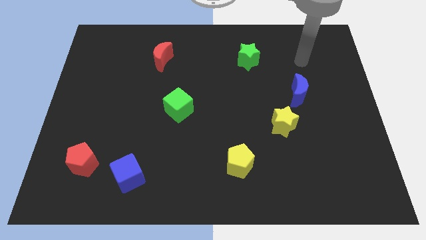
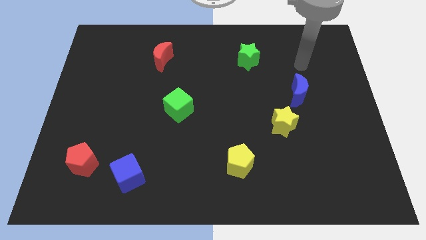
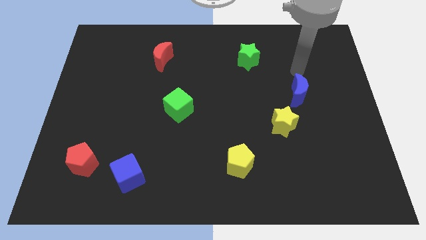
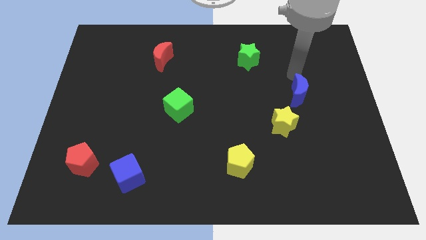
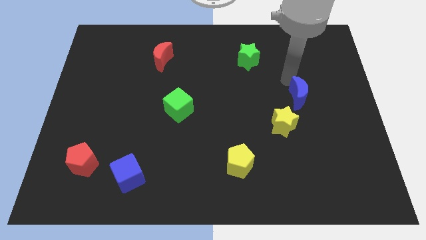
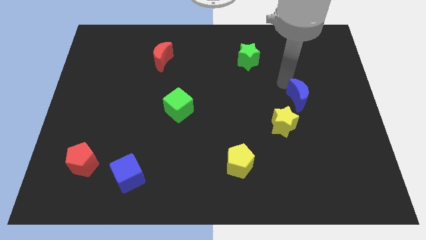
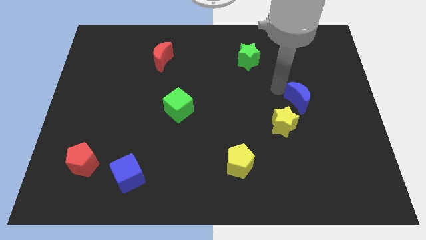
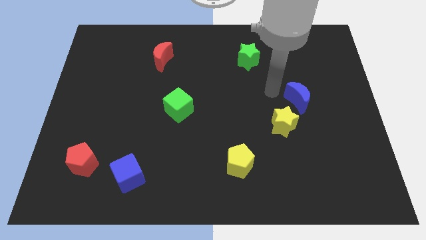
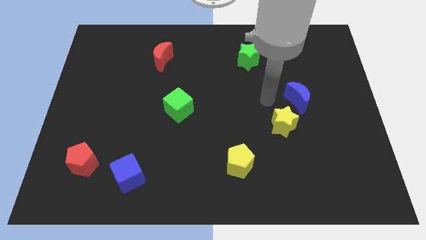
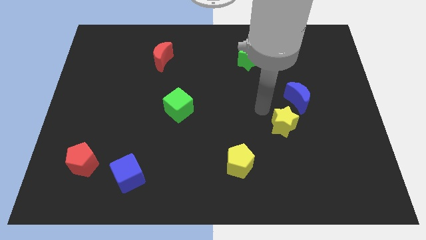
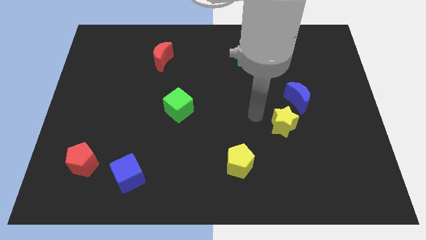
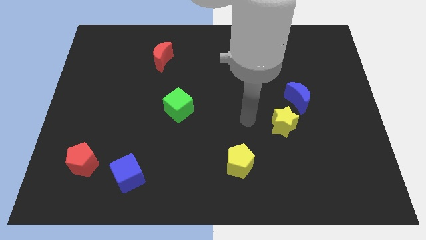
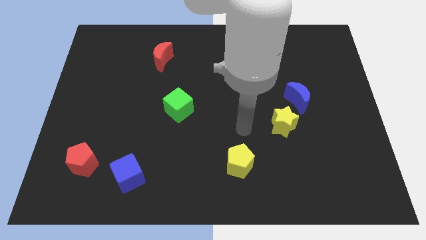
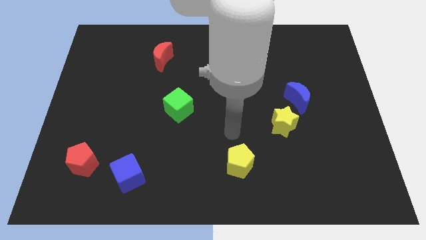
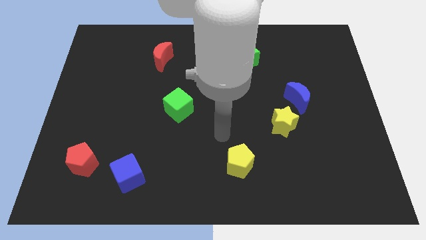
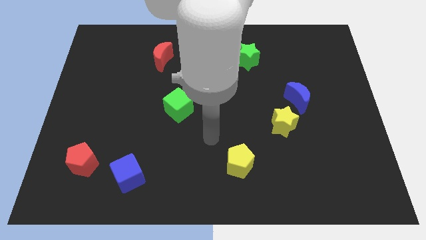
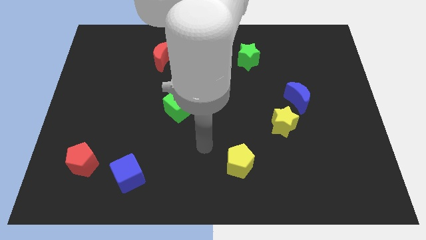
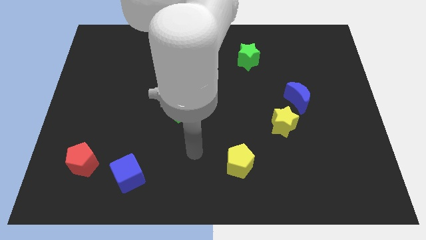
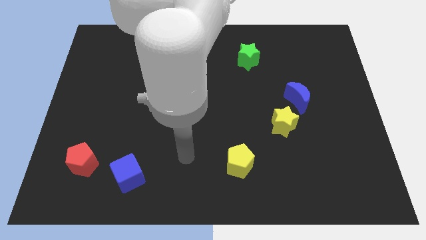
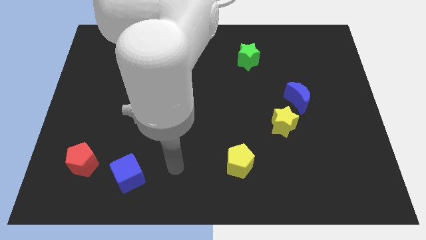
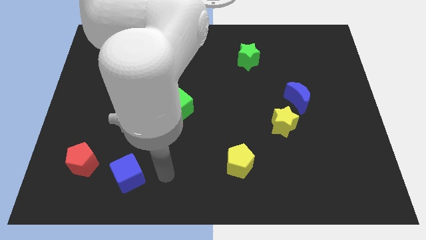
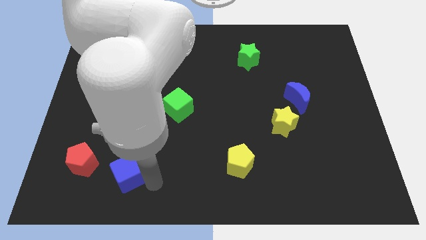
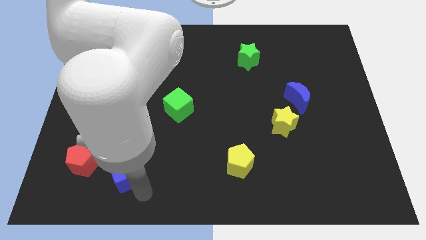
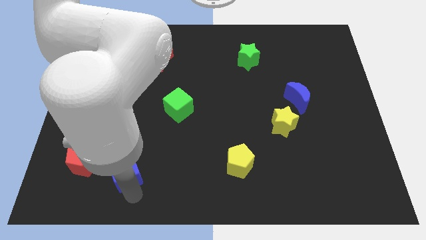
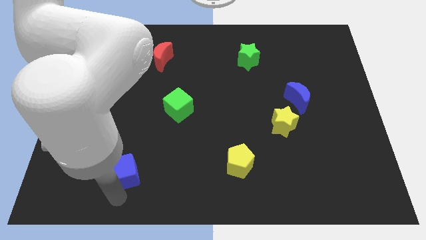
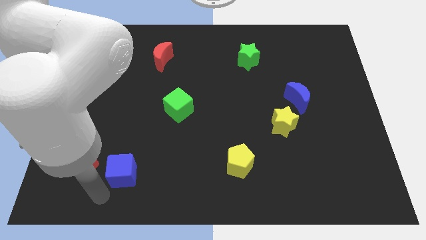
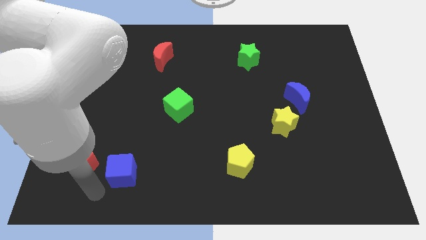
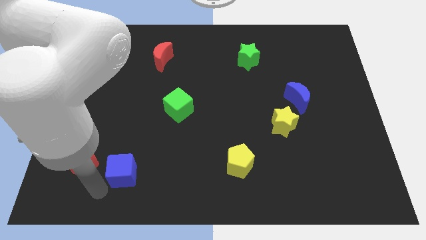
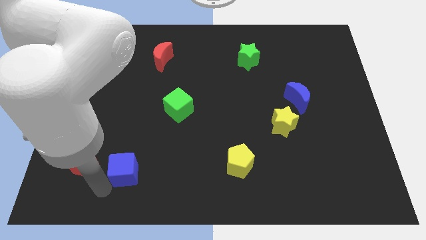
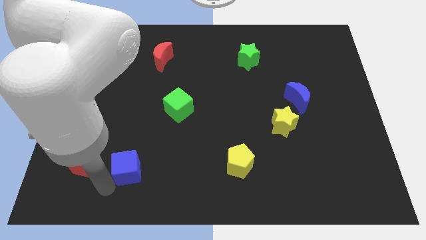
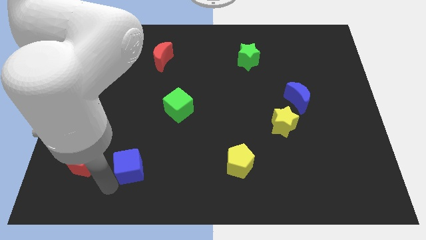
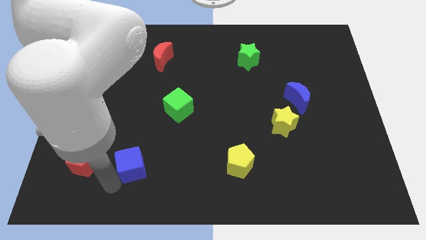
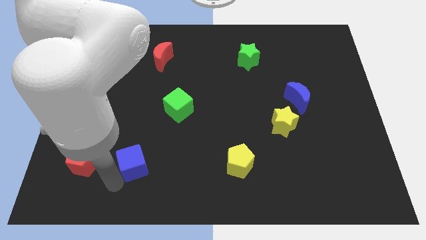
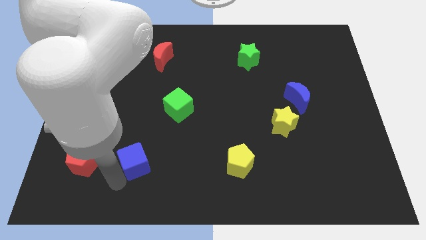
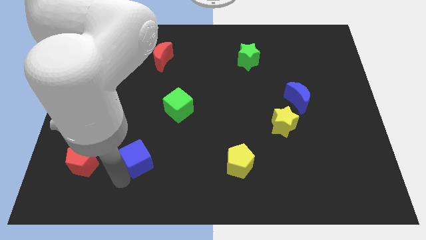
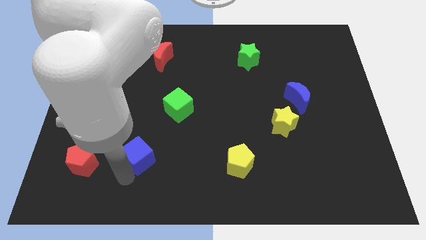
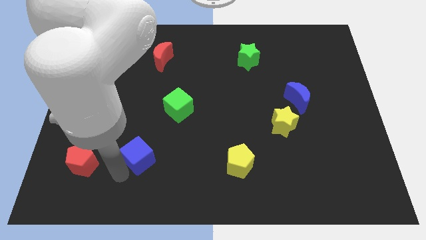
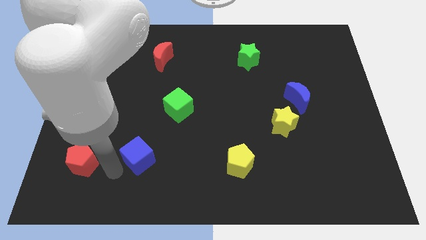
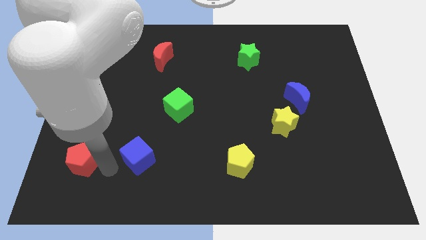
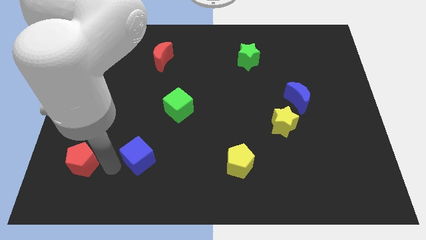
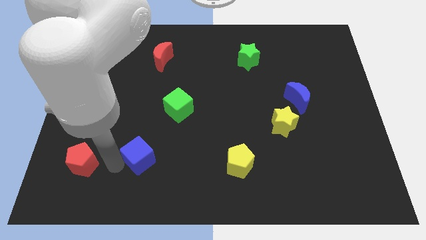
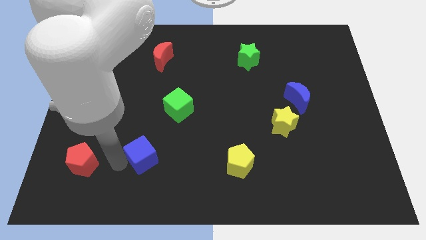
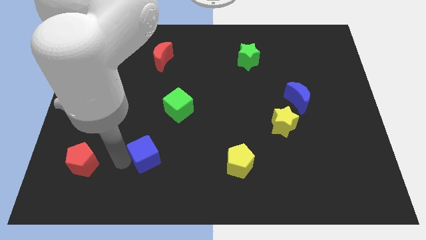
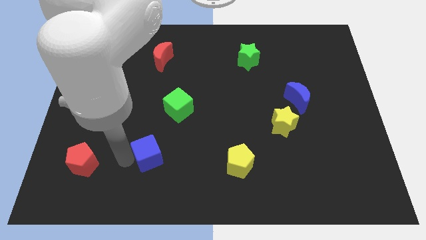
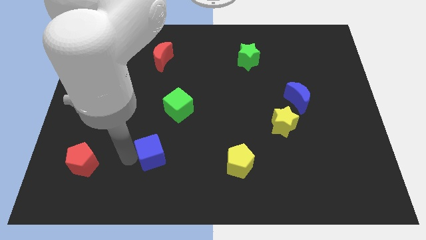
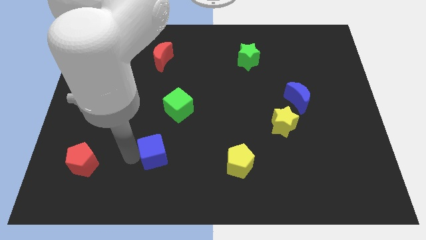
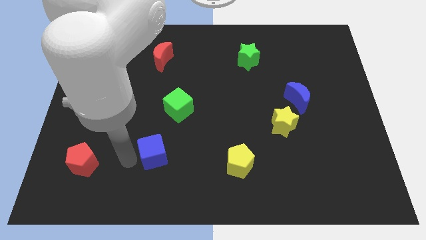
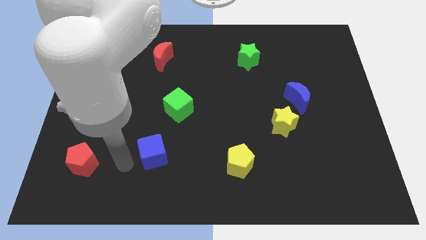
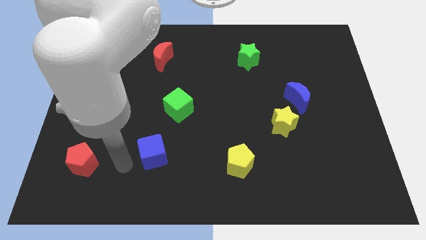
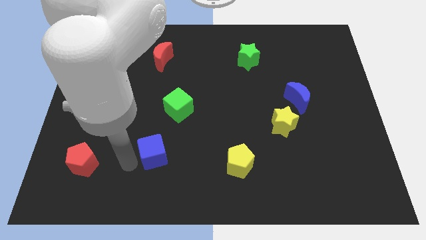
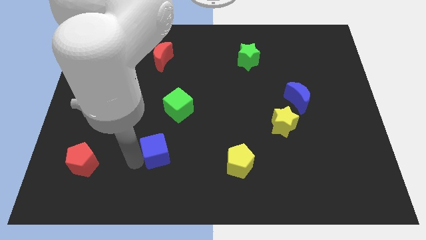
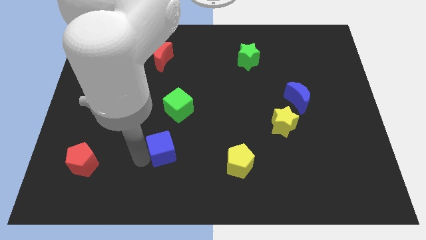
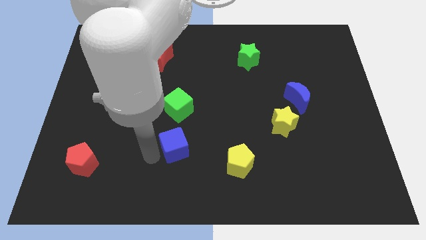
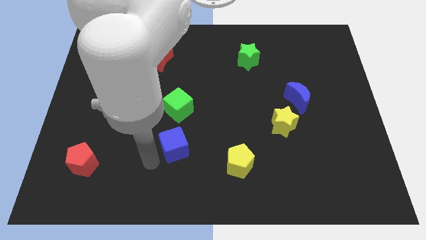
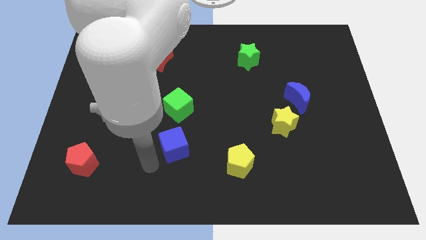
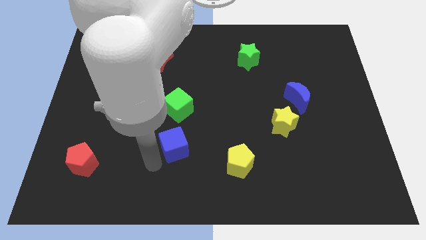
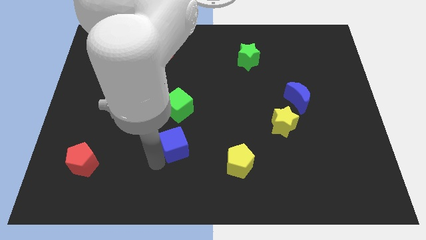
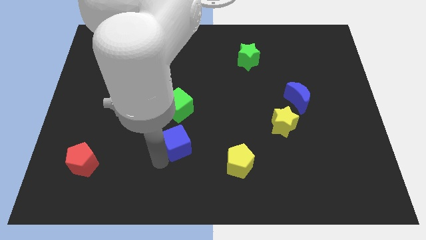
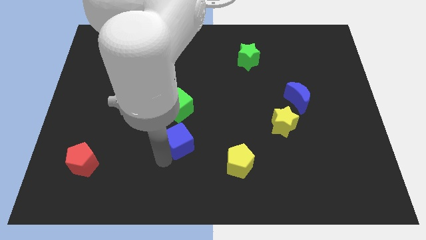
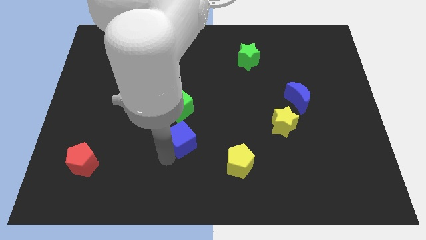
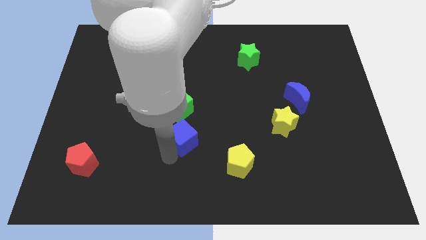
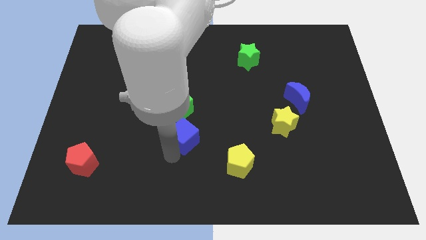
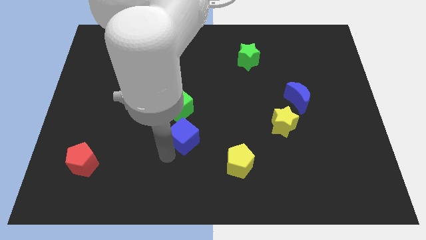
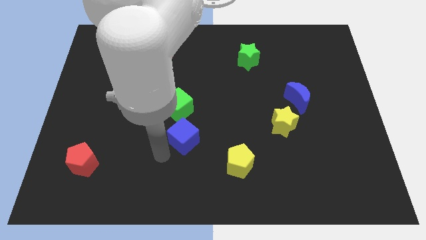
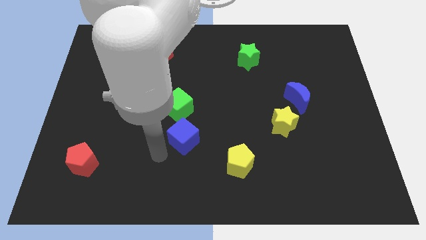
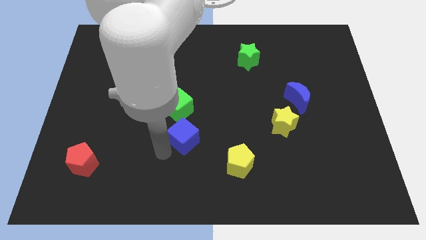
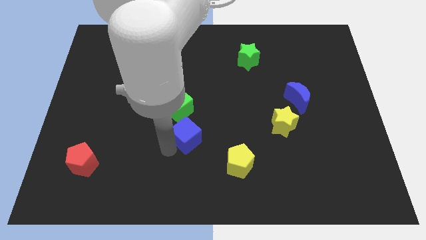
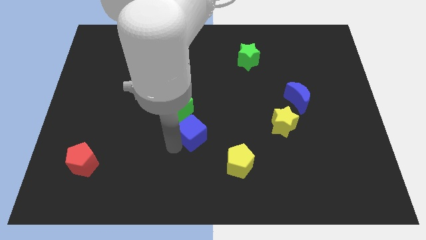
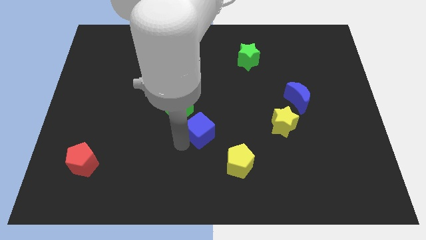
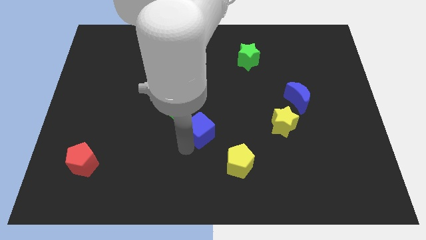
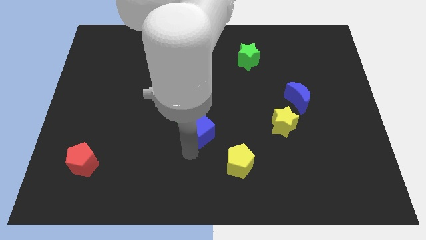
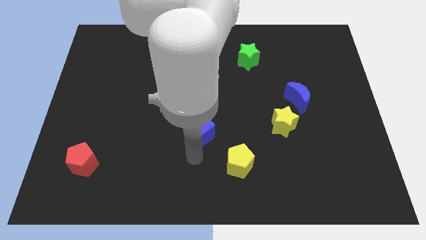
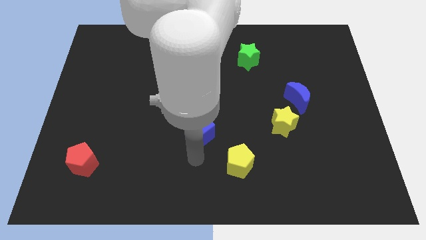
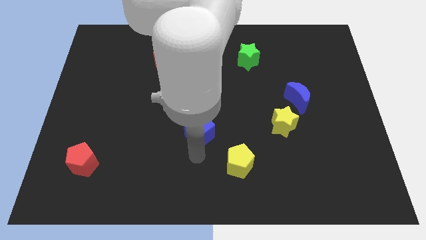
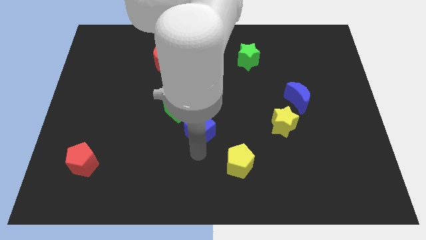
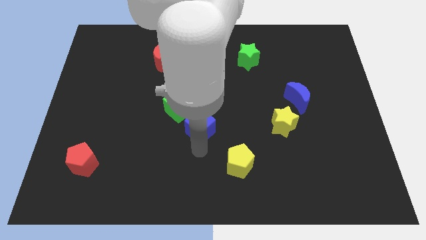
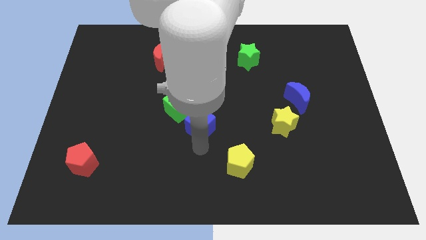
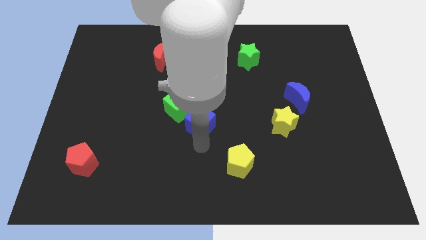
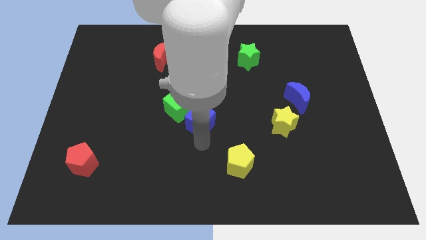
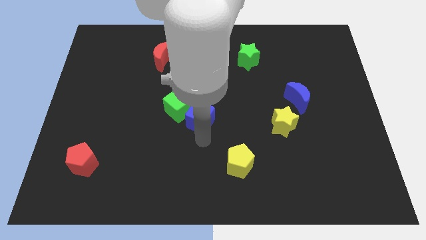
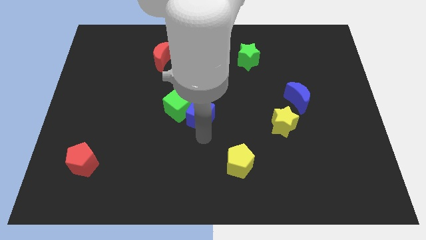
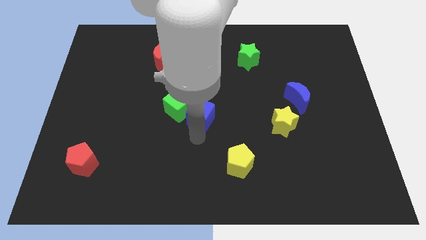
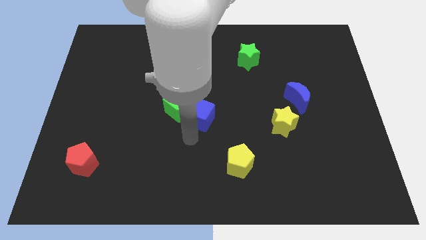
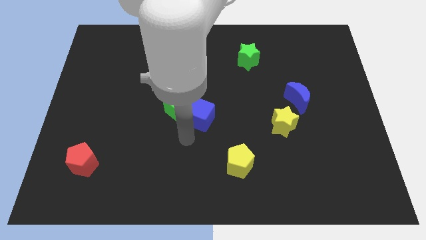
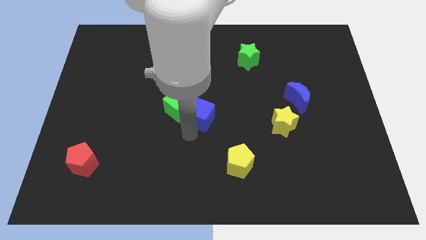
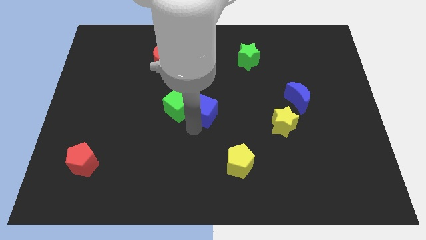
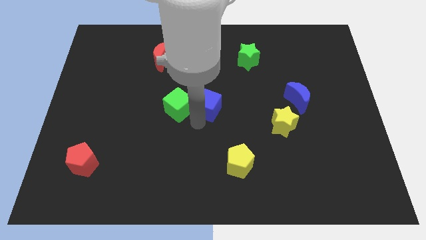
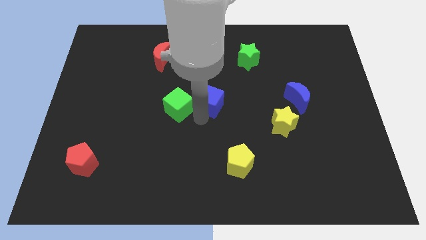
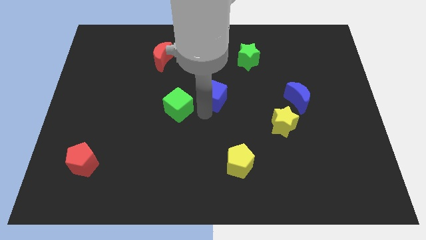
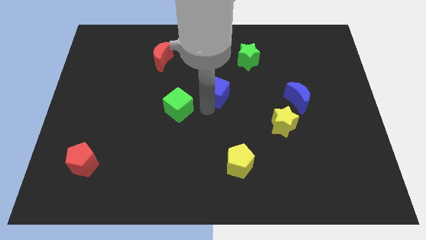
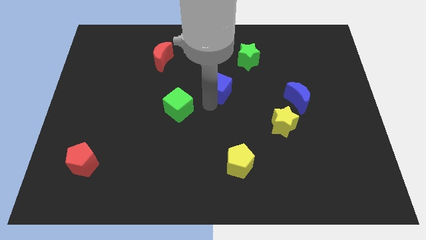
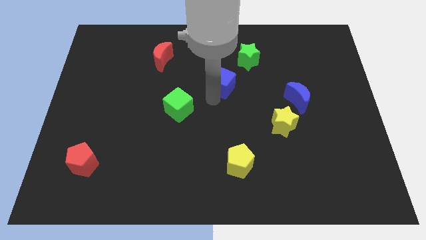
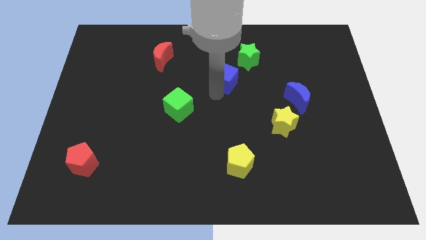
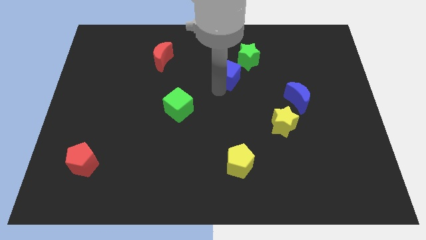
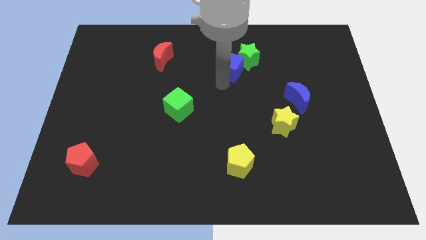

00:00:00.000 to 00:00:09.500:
move the blue cube next to the green star
